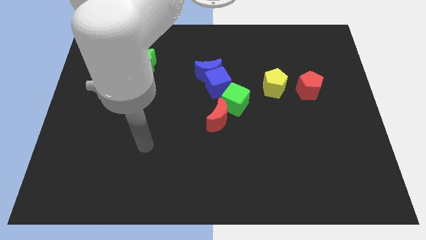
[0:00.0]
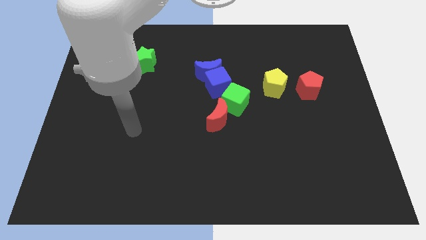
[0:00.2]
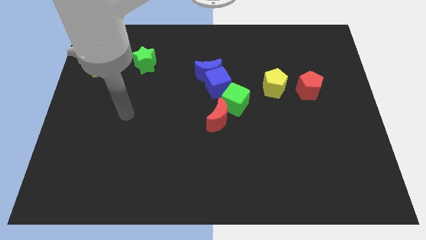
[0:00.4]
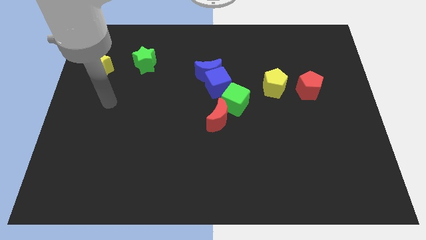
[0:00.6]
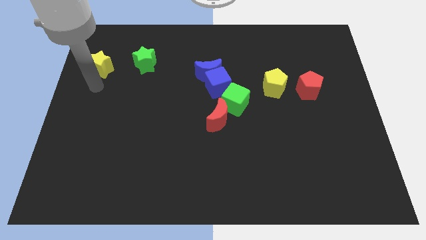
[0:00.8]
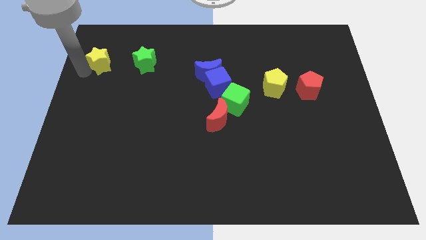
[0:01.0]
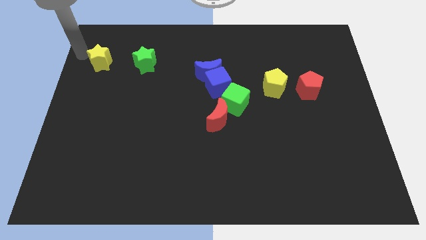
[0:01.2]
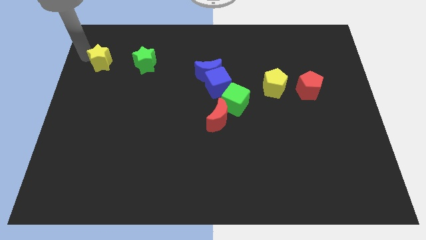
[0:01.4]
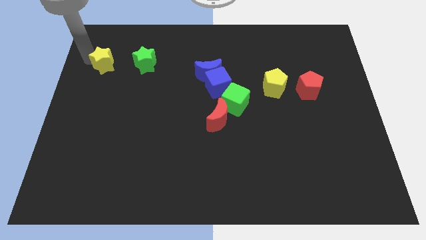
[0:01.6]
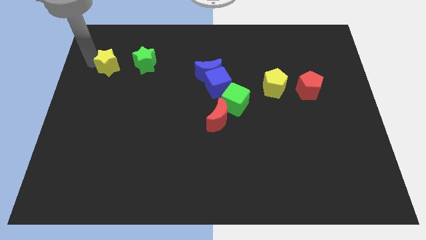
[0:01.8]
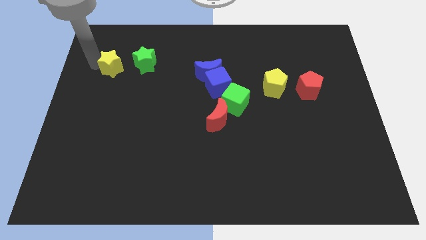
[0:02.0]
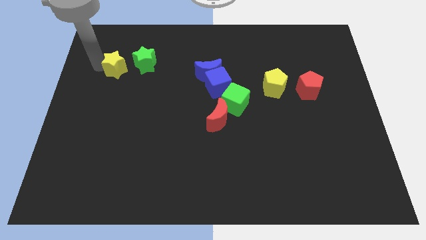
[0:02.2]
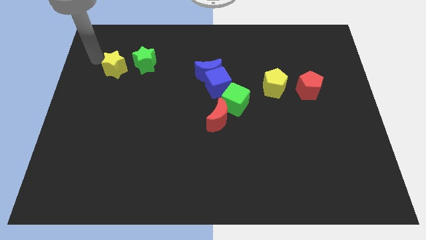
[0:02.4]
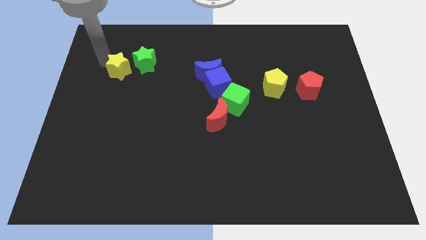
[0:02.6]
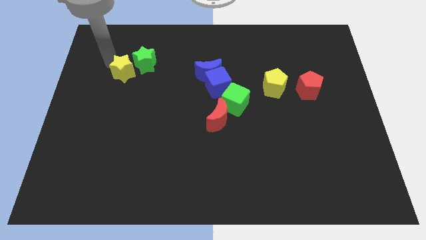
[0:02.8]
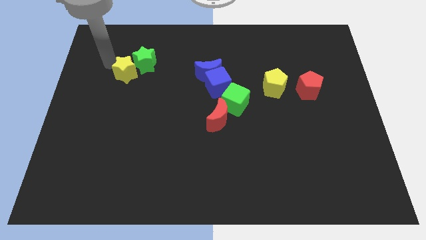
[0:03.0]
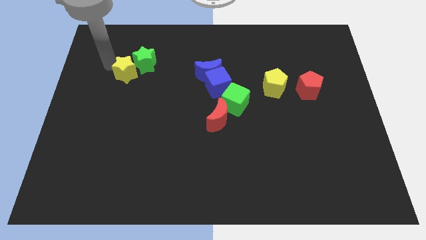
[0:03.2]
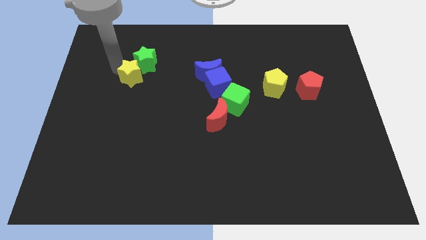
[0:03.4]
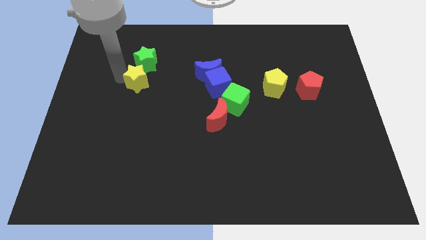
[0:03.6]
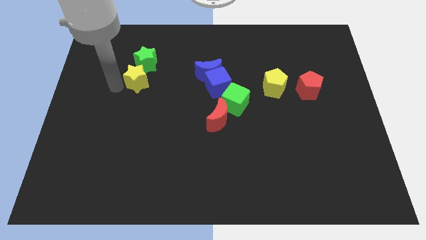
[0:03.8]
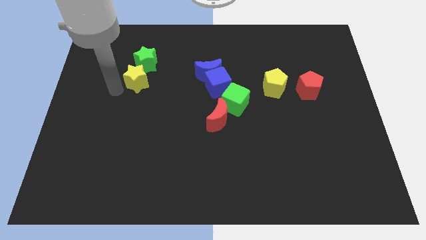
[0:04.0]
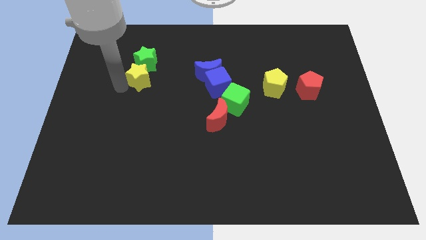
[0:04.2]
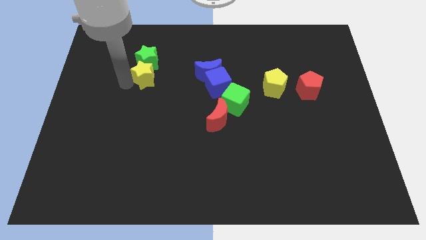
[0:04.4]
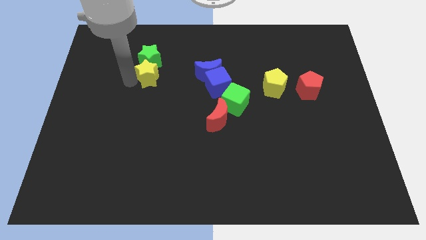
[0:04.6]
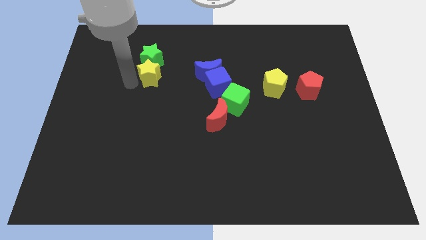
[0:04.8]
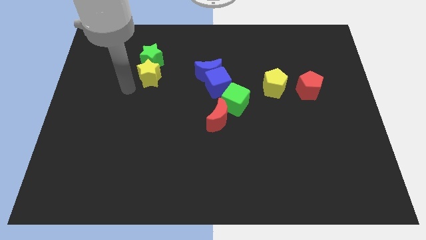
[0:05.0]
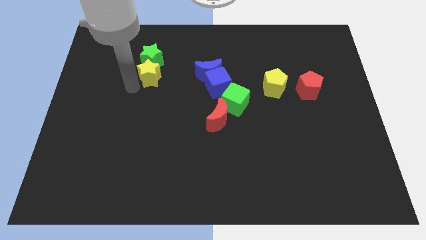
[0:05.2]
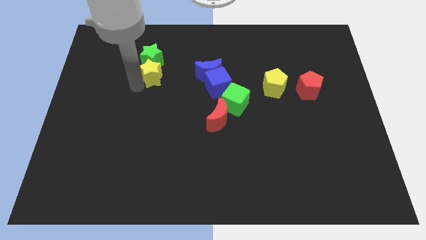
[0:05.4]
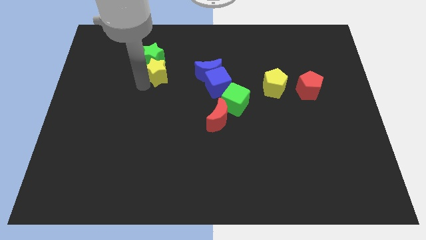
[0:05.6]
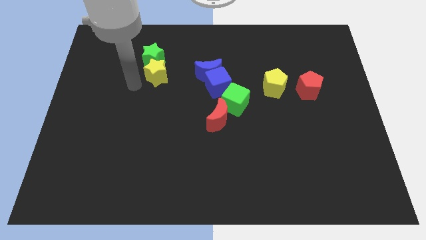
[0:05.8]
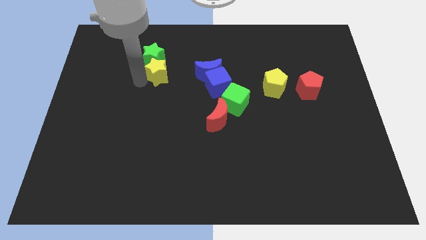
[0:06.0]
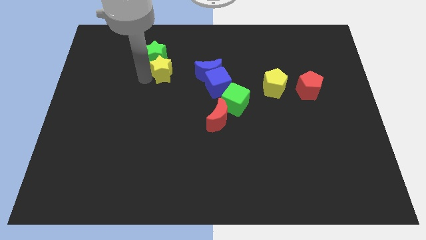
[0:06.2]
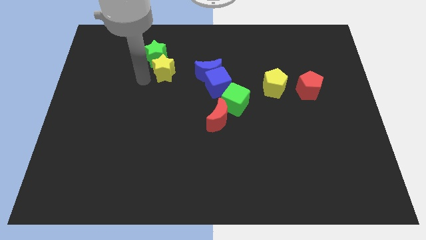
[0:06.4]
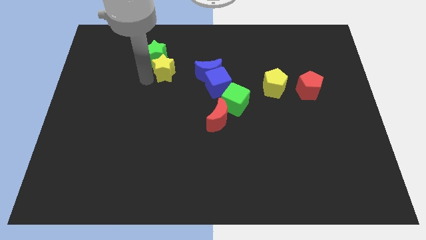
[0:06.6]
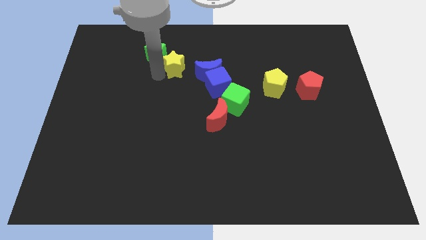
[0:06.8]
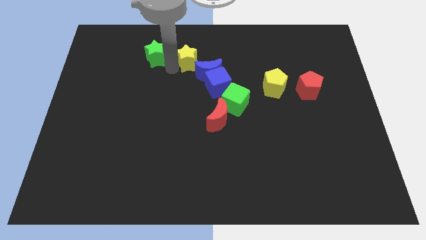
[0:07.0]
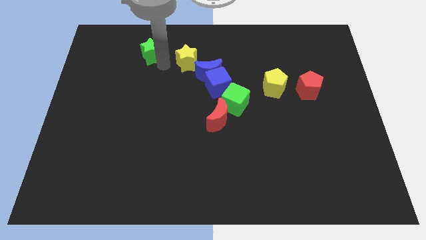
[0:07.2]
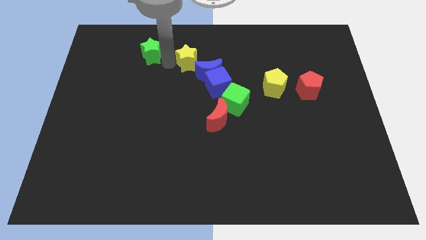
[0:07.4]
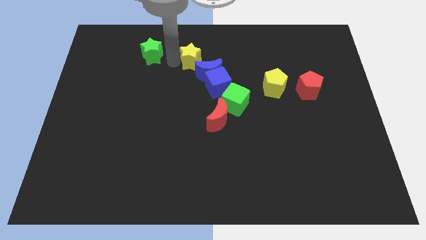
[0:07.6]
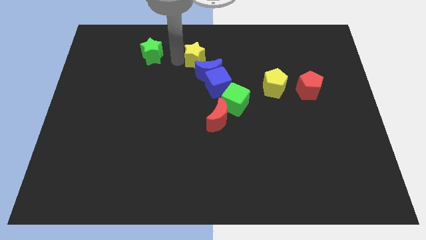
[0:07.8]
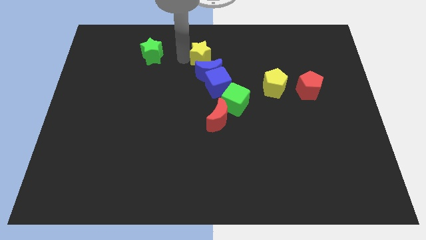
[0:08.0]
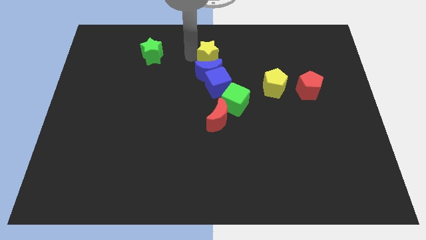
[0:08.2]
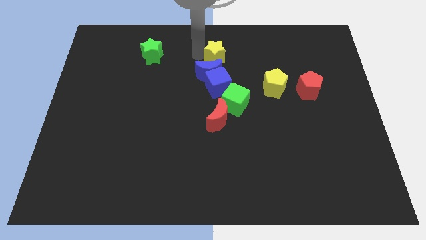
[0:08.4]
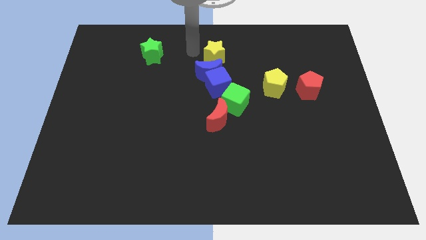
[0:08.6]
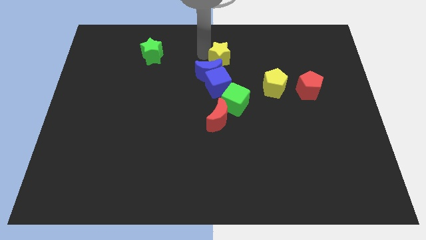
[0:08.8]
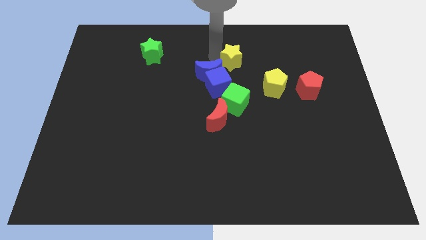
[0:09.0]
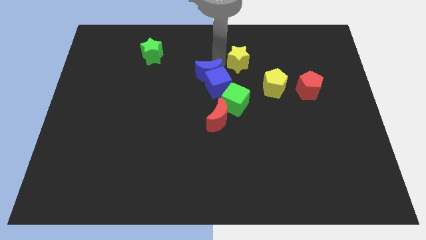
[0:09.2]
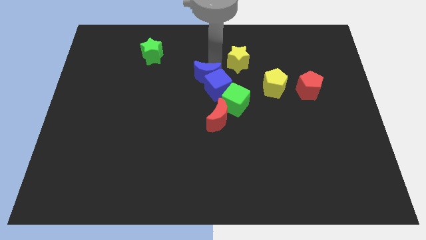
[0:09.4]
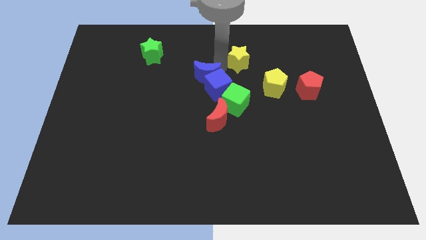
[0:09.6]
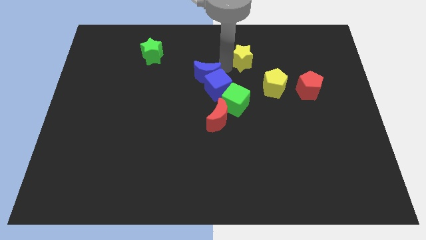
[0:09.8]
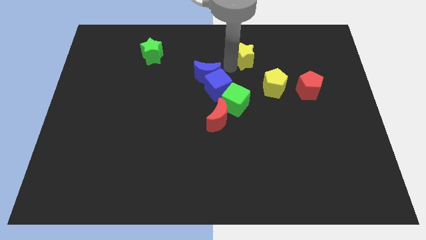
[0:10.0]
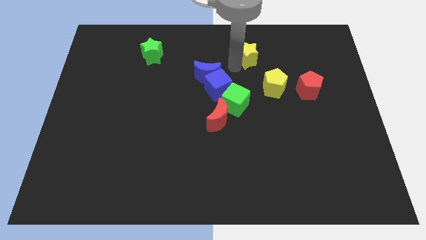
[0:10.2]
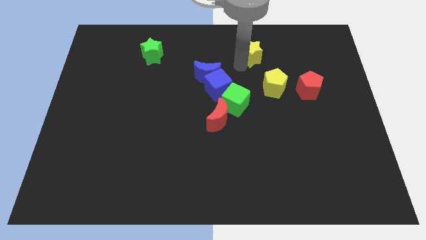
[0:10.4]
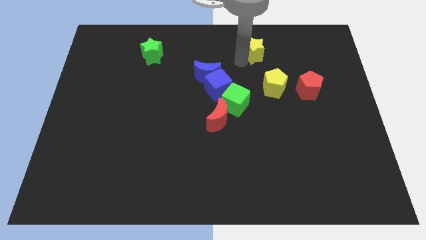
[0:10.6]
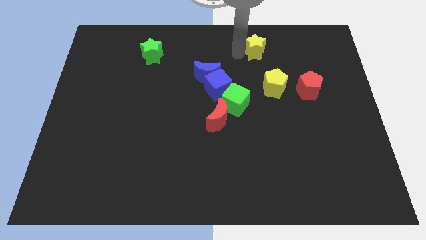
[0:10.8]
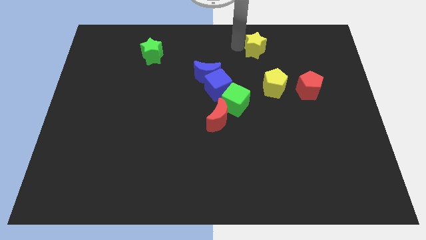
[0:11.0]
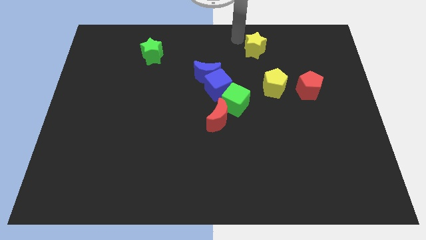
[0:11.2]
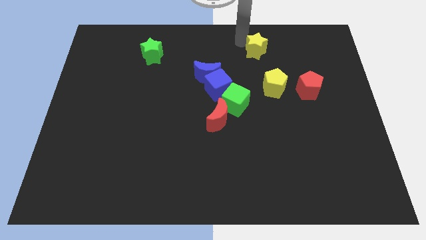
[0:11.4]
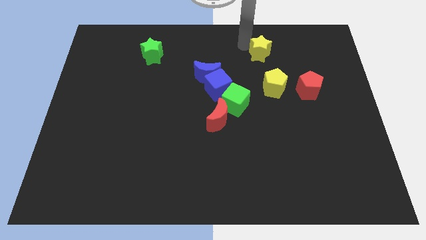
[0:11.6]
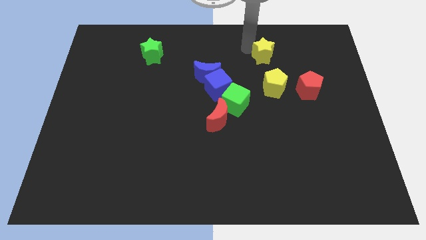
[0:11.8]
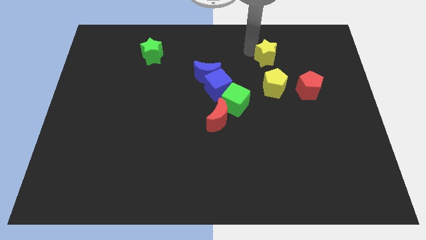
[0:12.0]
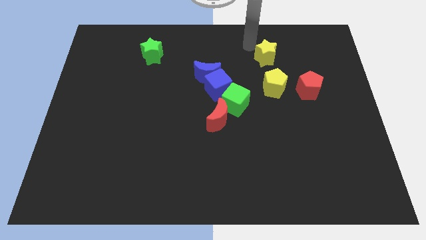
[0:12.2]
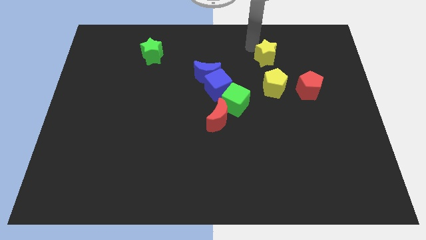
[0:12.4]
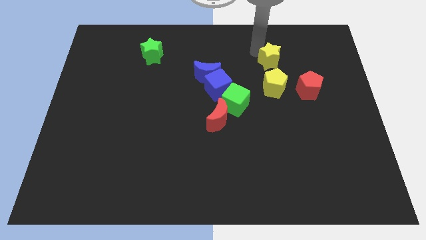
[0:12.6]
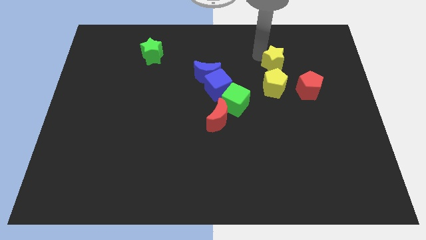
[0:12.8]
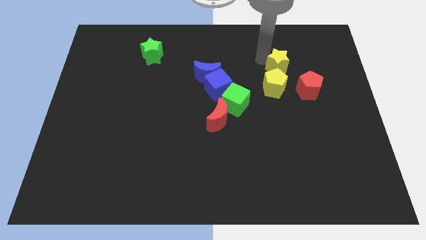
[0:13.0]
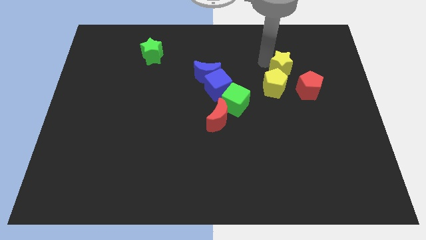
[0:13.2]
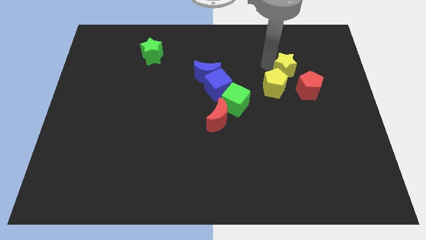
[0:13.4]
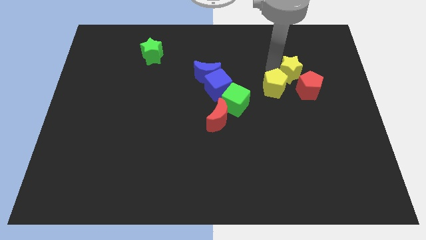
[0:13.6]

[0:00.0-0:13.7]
put the yellow star to the right of the yellow pentagon

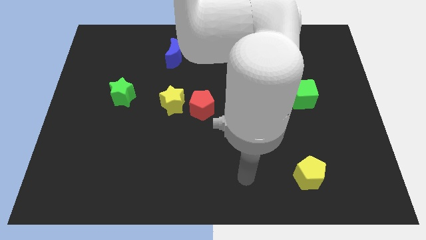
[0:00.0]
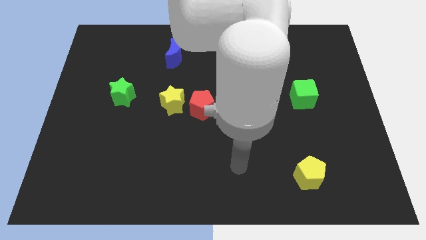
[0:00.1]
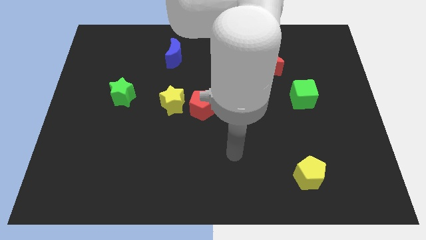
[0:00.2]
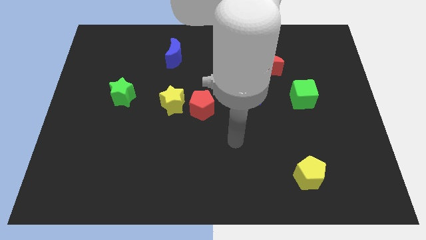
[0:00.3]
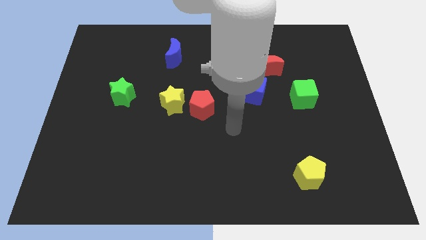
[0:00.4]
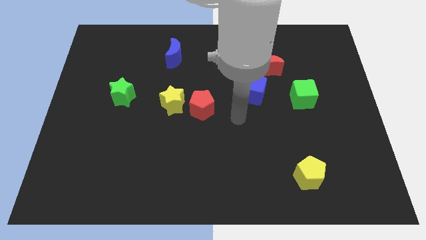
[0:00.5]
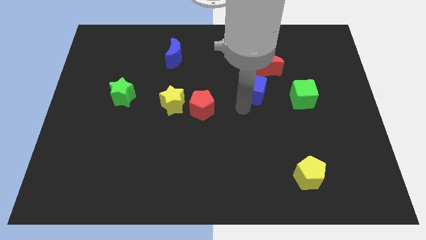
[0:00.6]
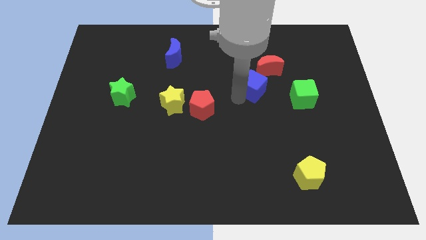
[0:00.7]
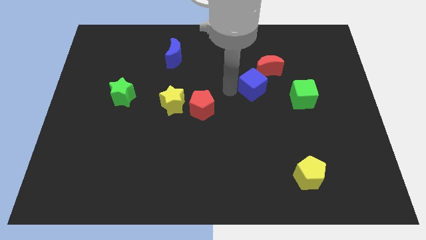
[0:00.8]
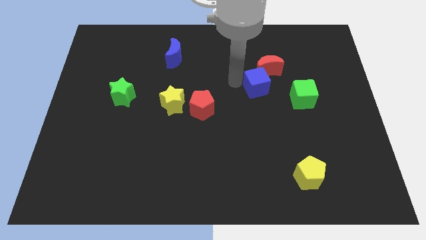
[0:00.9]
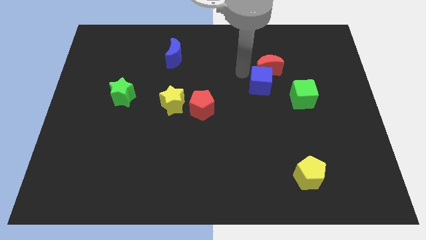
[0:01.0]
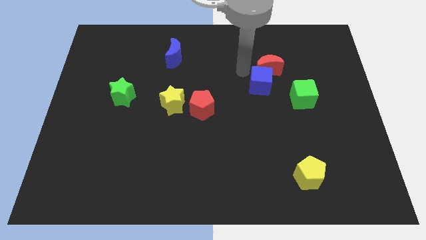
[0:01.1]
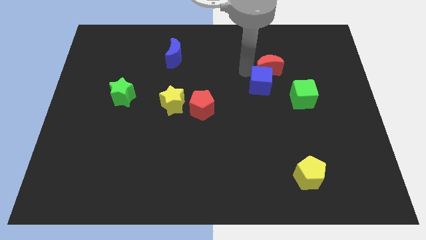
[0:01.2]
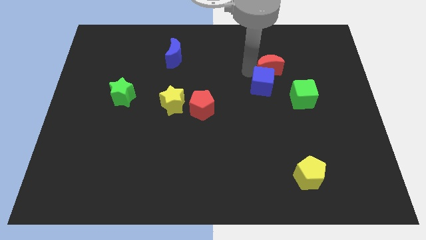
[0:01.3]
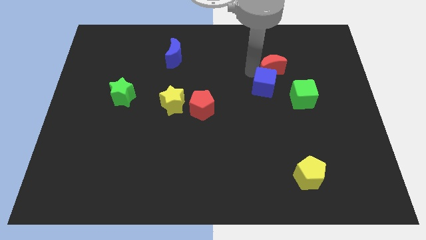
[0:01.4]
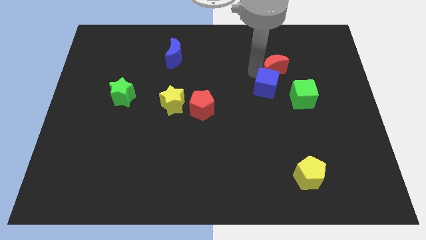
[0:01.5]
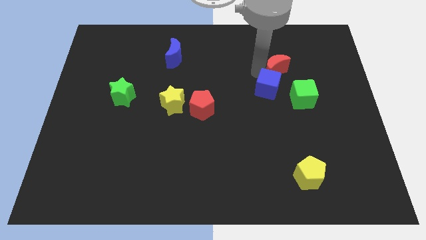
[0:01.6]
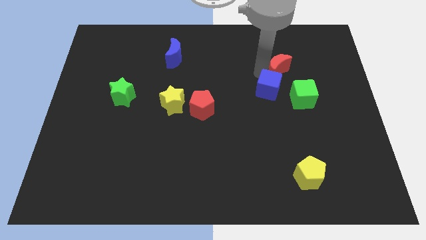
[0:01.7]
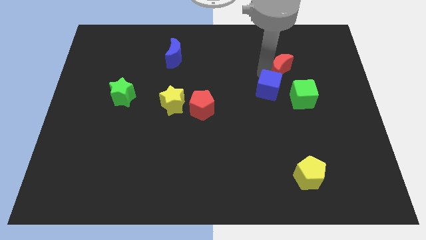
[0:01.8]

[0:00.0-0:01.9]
put the red moon above the green cube
